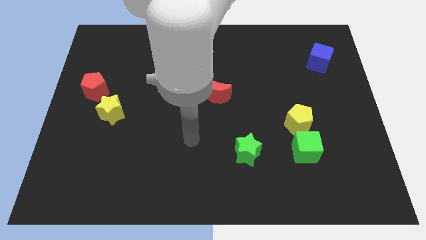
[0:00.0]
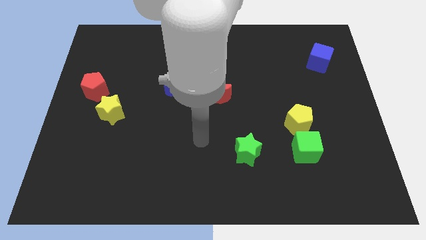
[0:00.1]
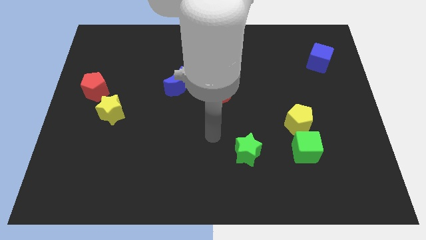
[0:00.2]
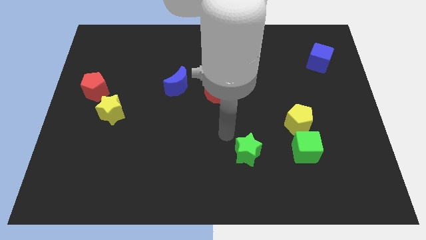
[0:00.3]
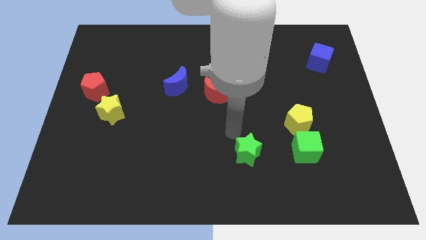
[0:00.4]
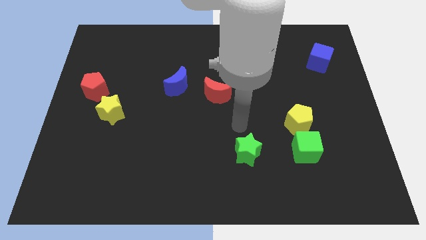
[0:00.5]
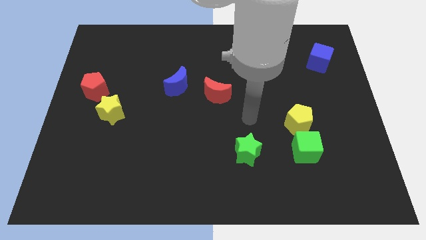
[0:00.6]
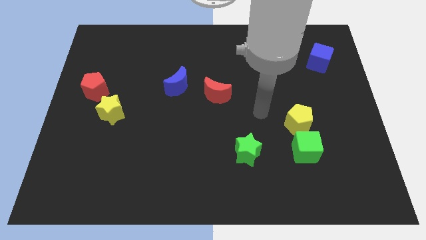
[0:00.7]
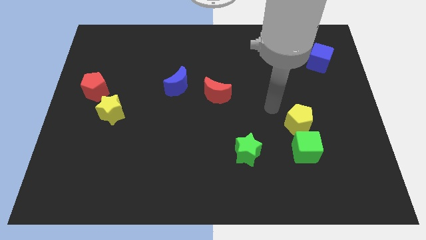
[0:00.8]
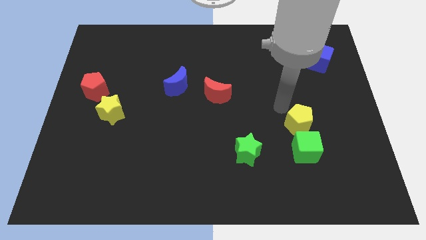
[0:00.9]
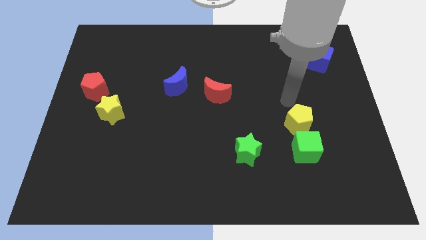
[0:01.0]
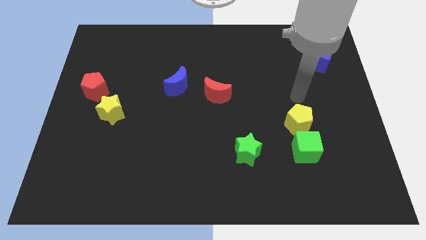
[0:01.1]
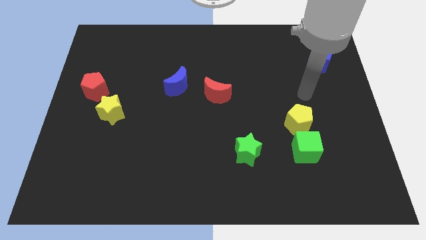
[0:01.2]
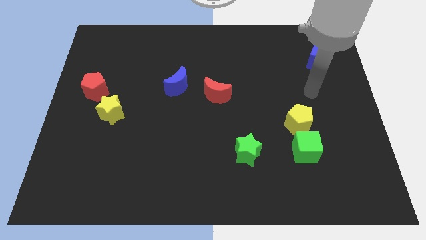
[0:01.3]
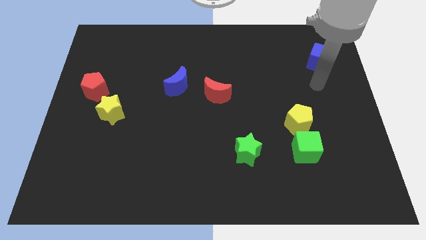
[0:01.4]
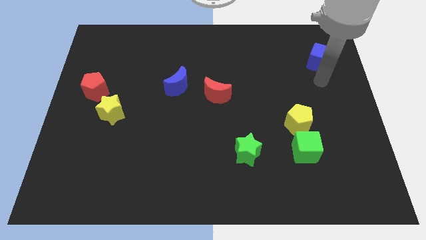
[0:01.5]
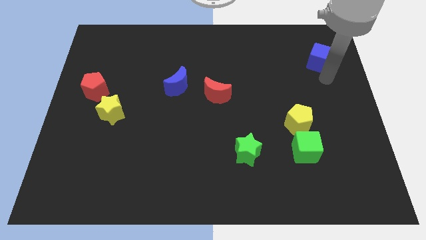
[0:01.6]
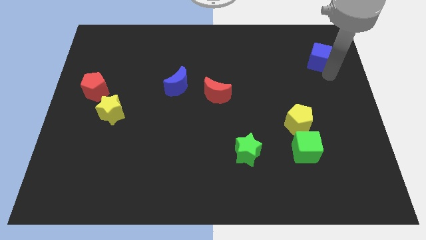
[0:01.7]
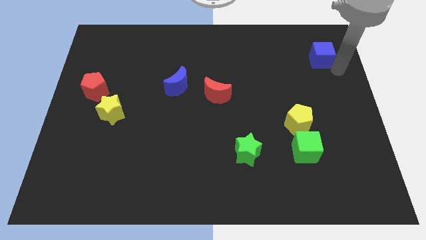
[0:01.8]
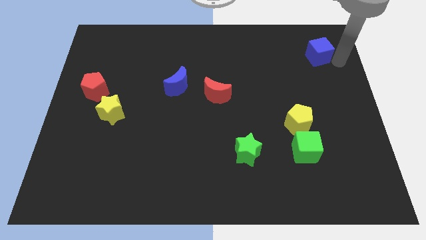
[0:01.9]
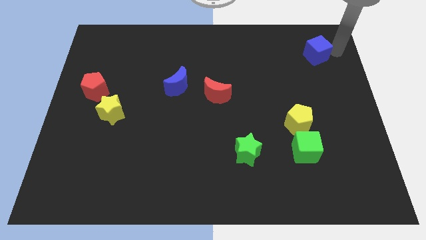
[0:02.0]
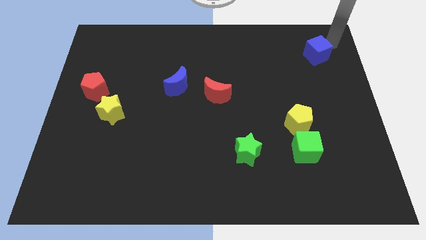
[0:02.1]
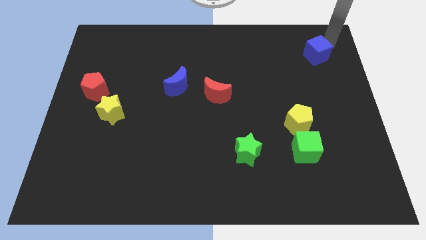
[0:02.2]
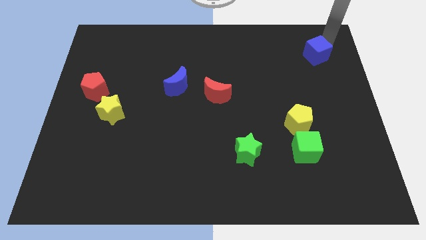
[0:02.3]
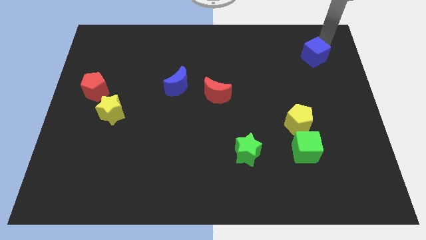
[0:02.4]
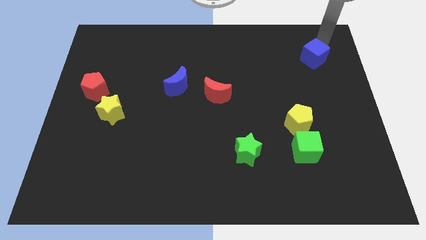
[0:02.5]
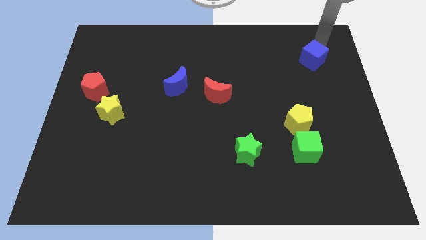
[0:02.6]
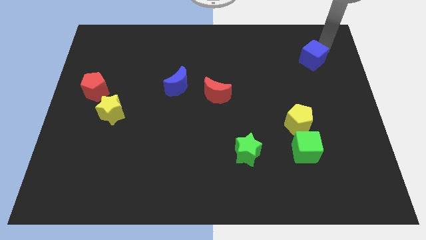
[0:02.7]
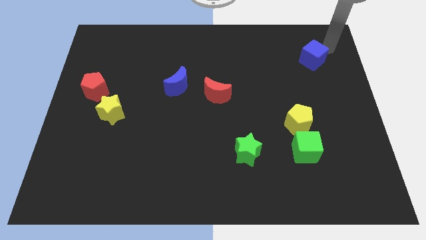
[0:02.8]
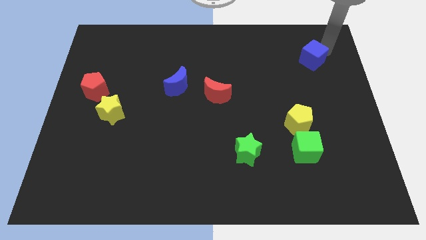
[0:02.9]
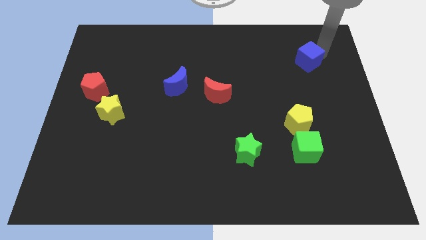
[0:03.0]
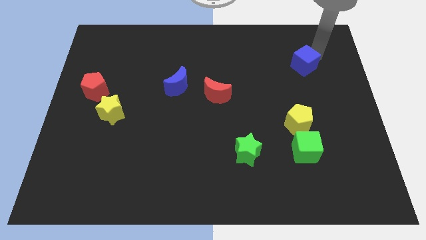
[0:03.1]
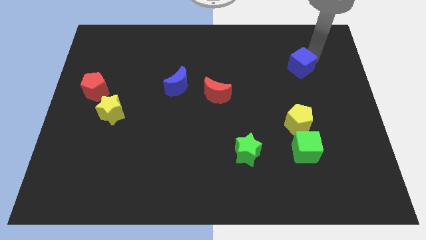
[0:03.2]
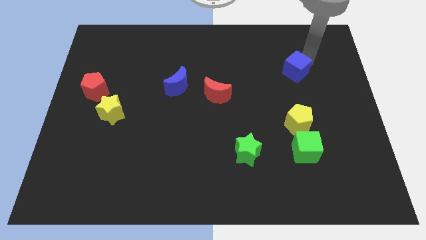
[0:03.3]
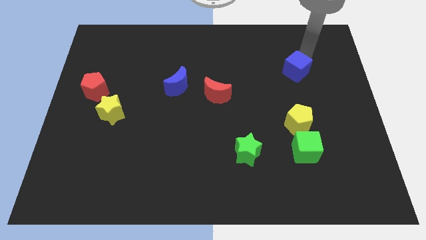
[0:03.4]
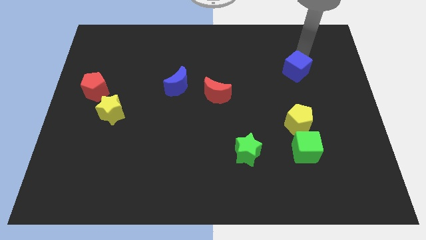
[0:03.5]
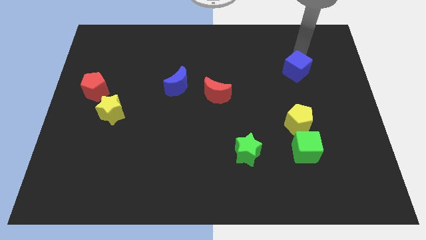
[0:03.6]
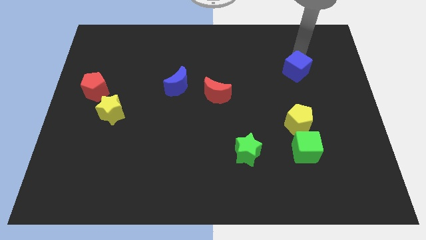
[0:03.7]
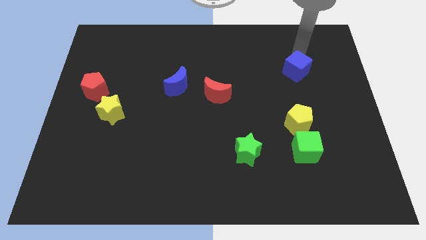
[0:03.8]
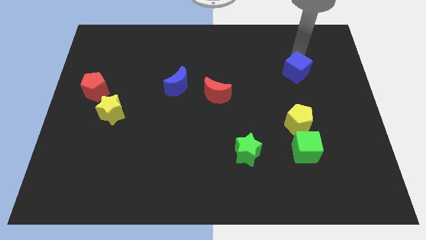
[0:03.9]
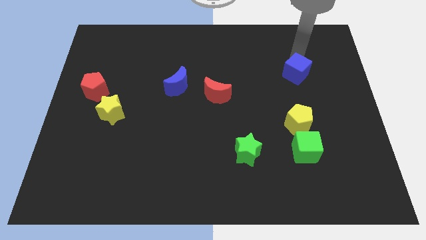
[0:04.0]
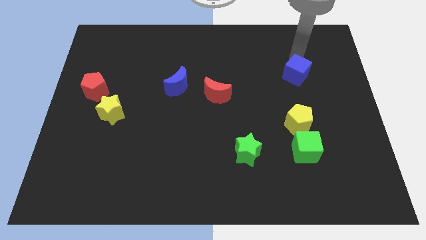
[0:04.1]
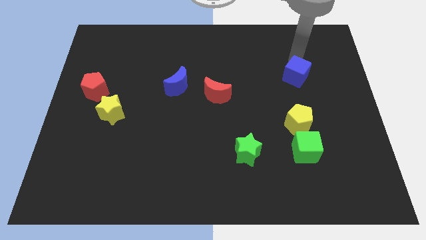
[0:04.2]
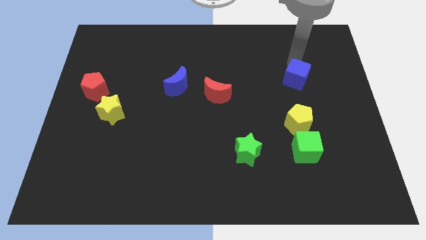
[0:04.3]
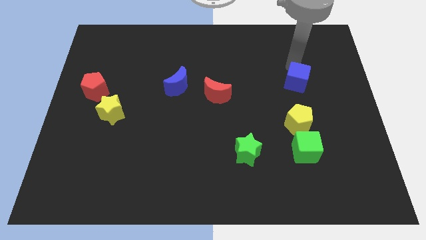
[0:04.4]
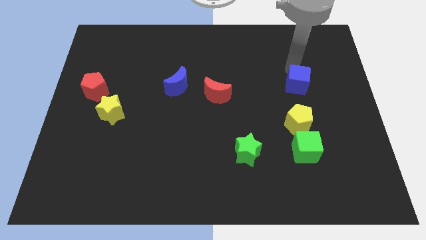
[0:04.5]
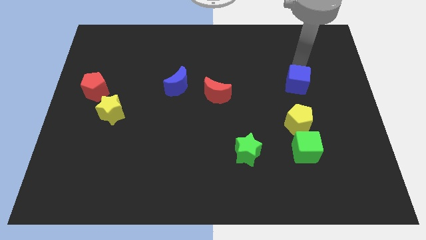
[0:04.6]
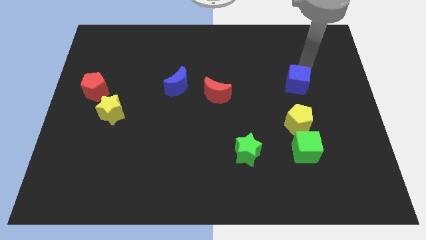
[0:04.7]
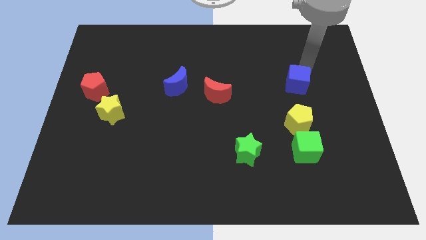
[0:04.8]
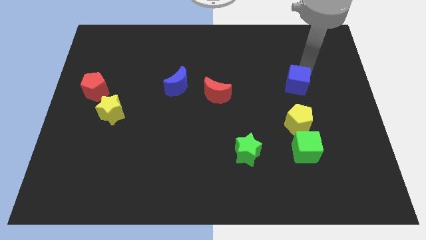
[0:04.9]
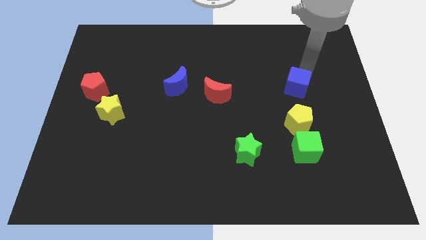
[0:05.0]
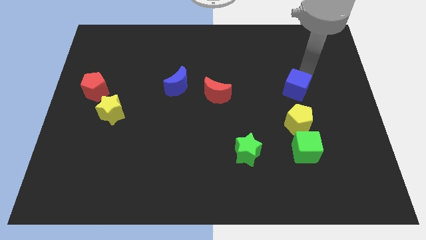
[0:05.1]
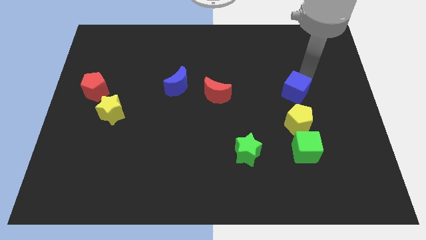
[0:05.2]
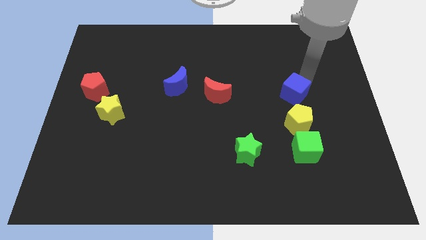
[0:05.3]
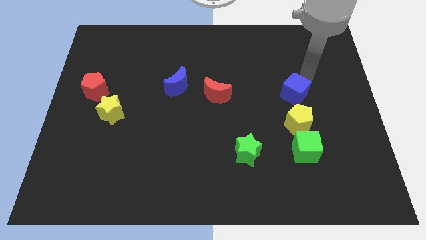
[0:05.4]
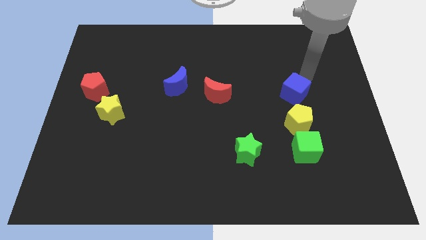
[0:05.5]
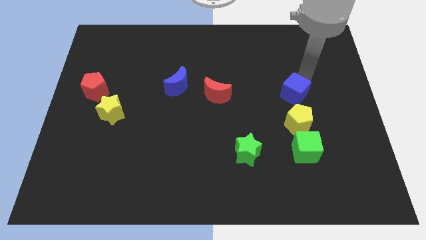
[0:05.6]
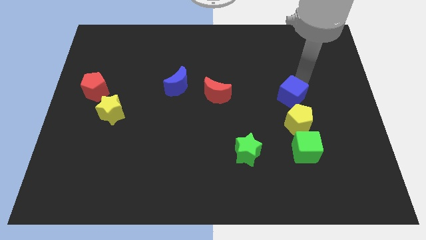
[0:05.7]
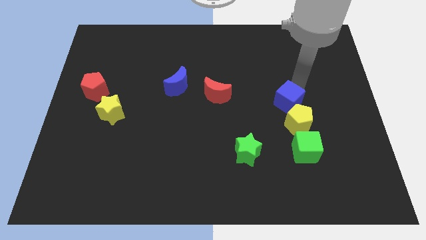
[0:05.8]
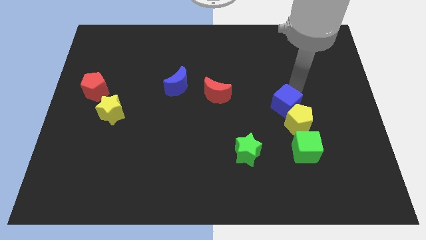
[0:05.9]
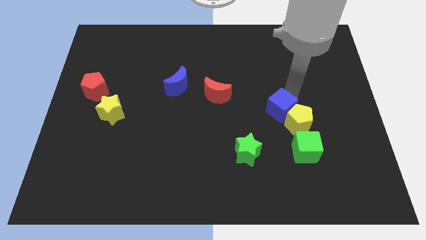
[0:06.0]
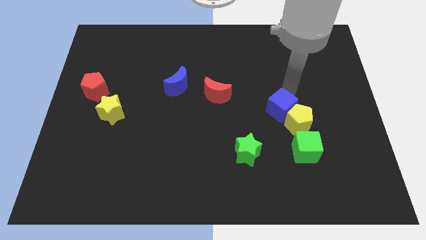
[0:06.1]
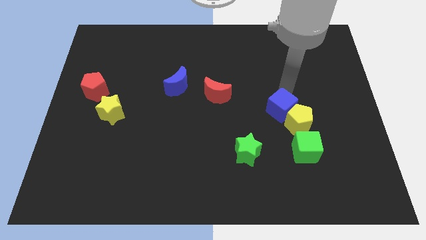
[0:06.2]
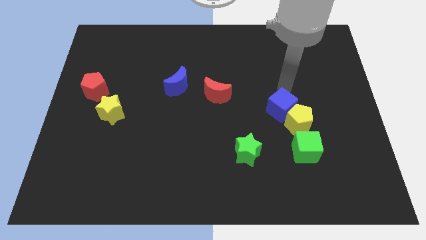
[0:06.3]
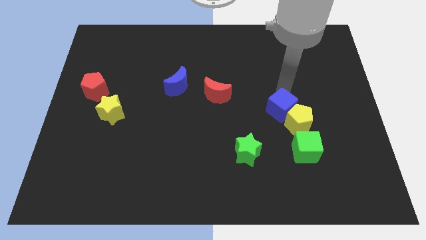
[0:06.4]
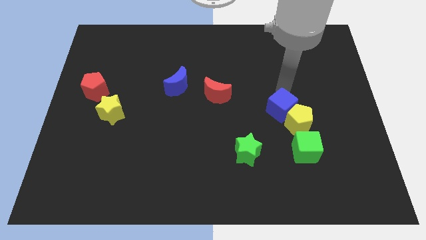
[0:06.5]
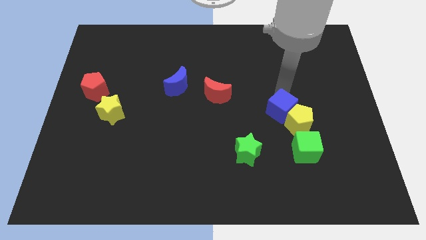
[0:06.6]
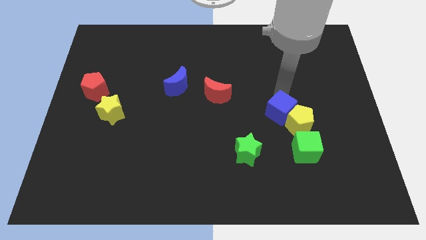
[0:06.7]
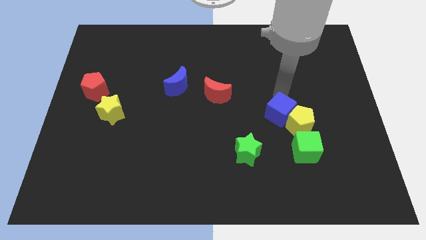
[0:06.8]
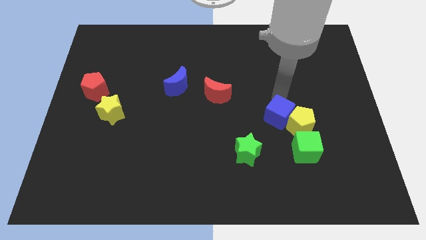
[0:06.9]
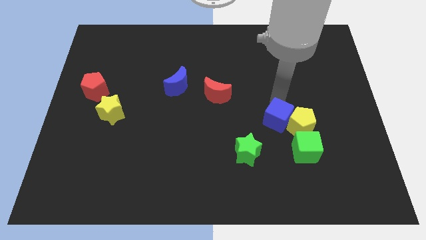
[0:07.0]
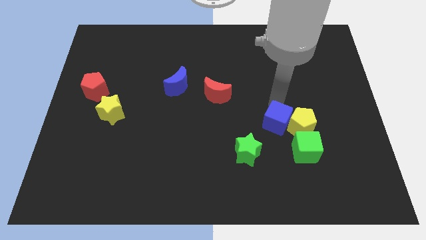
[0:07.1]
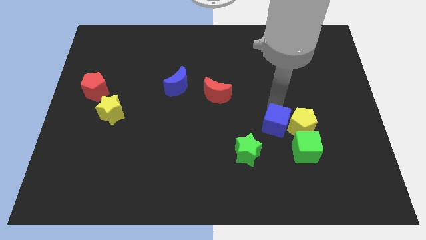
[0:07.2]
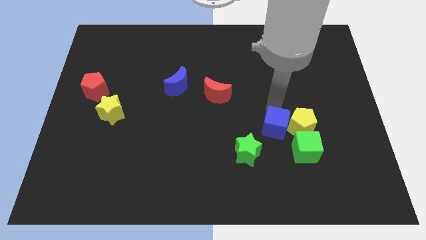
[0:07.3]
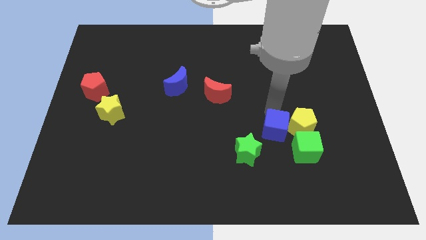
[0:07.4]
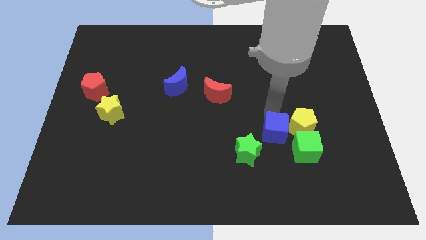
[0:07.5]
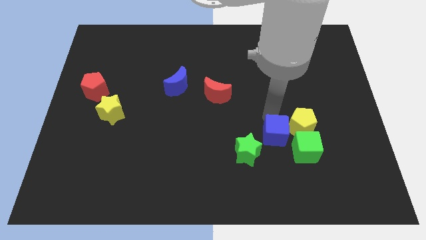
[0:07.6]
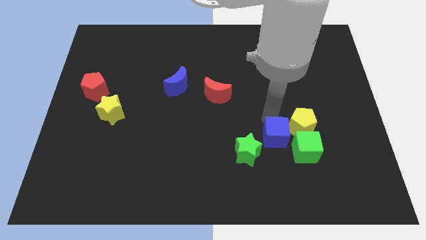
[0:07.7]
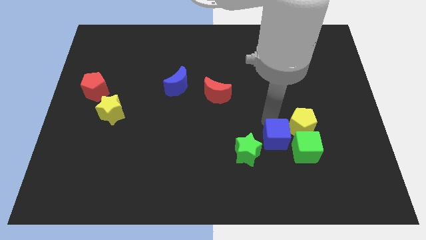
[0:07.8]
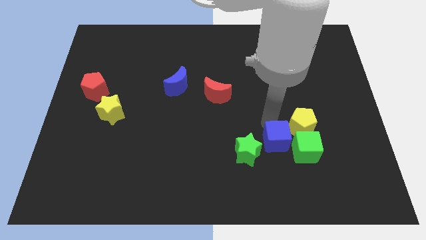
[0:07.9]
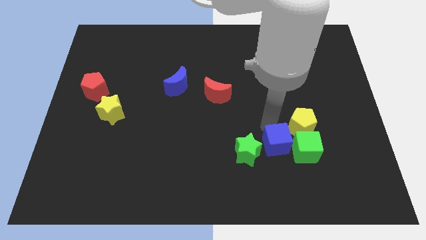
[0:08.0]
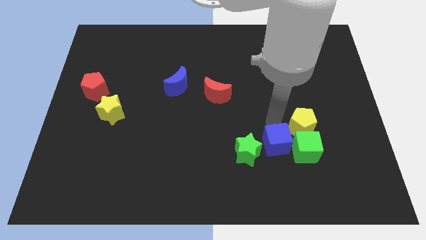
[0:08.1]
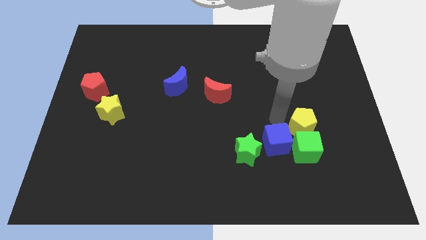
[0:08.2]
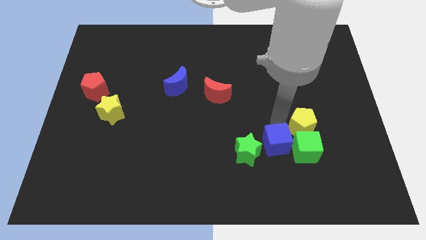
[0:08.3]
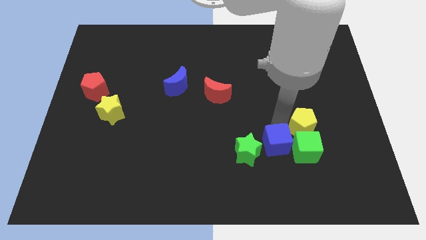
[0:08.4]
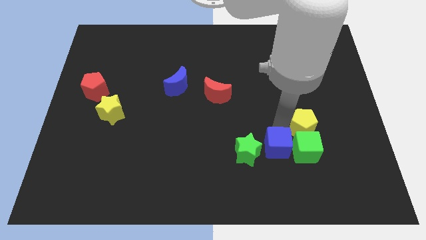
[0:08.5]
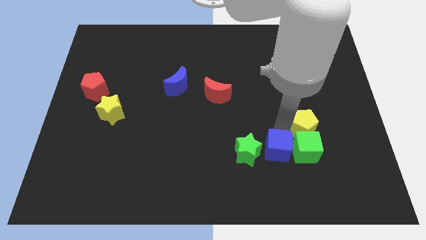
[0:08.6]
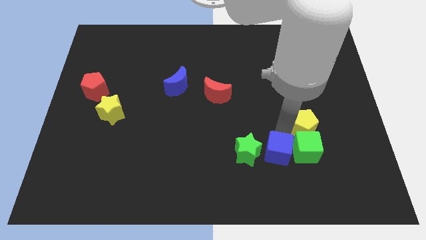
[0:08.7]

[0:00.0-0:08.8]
put the blue cube to the bottom right of the green star
